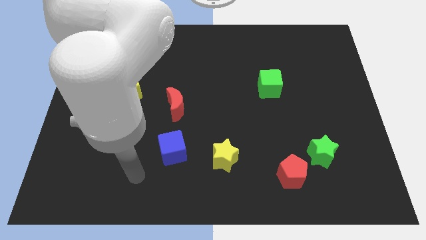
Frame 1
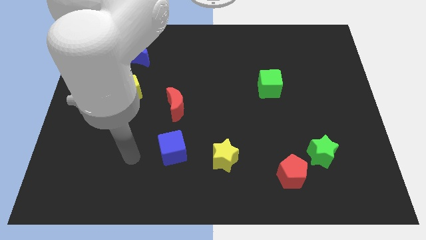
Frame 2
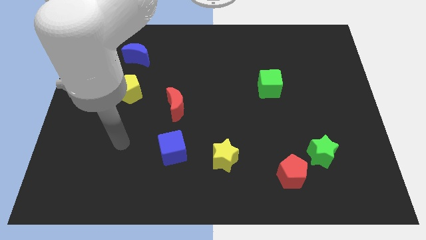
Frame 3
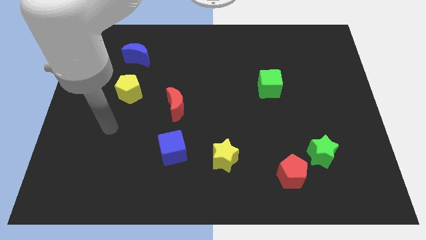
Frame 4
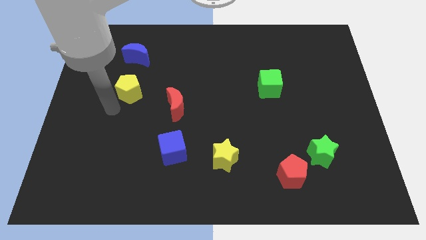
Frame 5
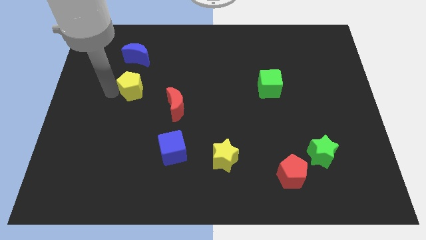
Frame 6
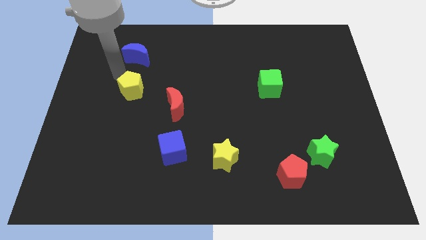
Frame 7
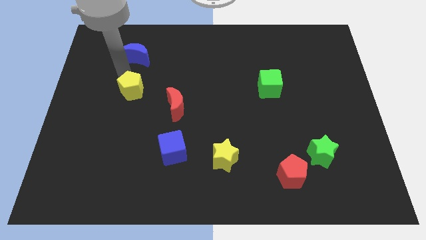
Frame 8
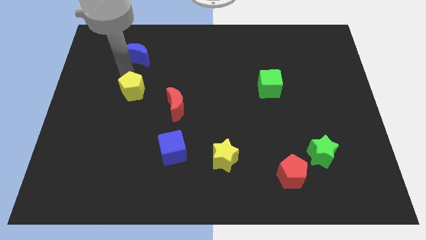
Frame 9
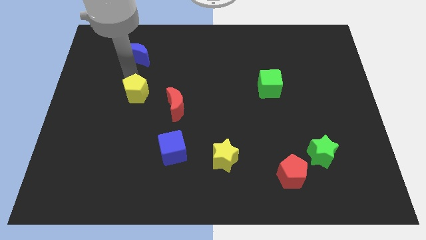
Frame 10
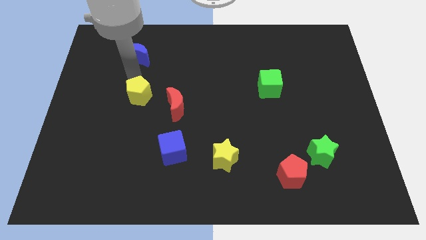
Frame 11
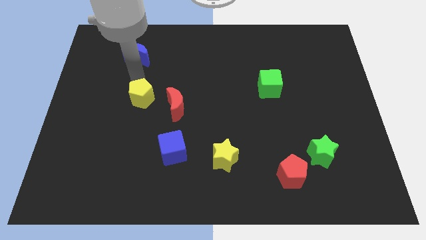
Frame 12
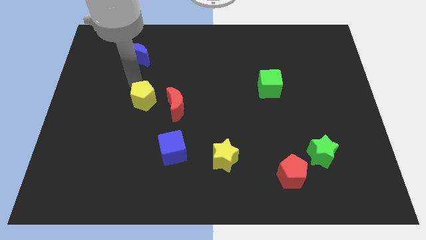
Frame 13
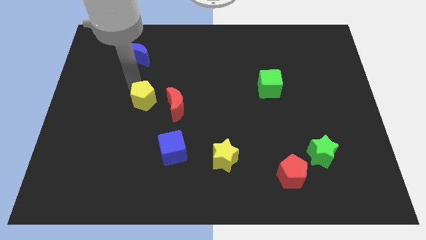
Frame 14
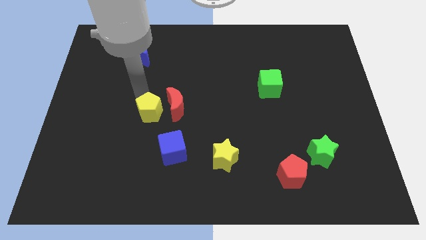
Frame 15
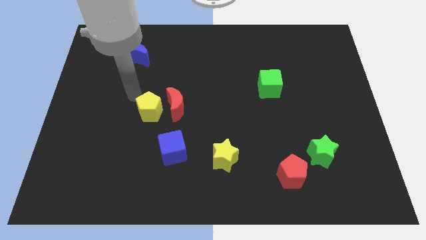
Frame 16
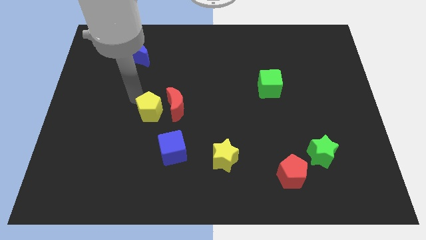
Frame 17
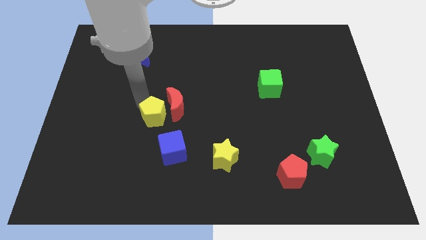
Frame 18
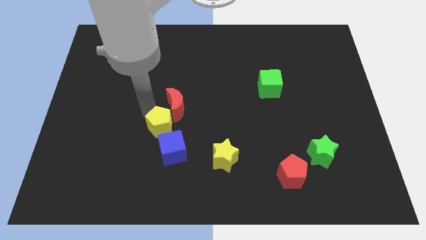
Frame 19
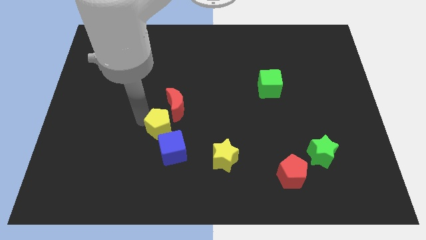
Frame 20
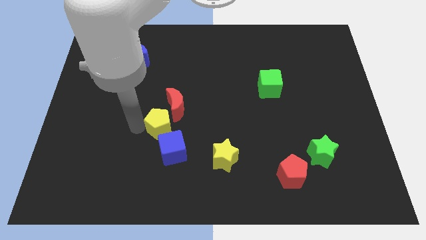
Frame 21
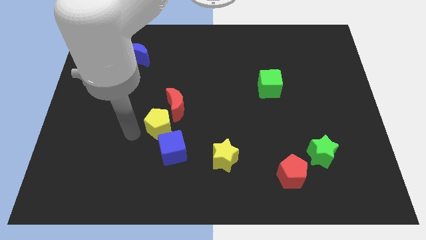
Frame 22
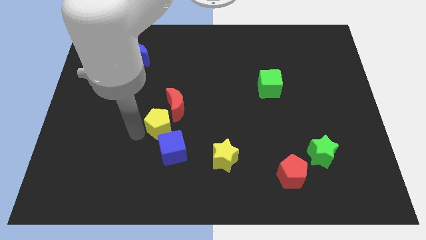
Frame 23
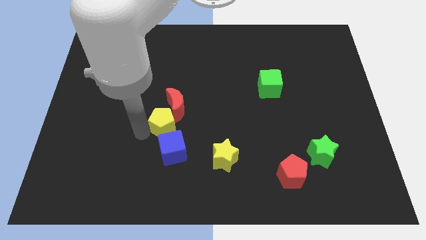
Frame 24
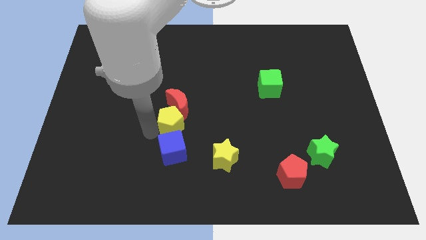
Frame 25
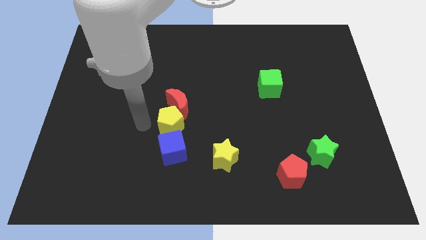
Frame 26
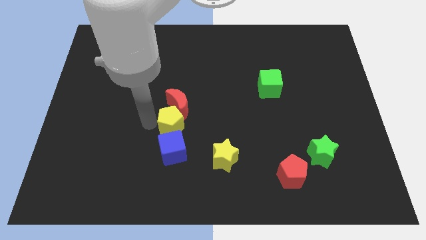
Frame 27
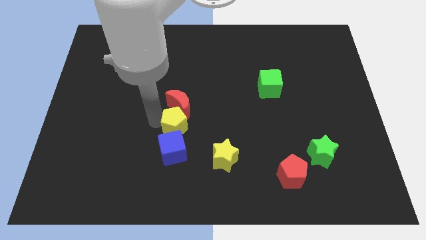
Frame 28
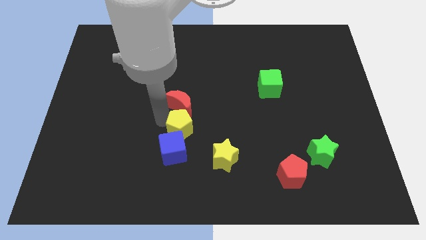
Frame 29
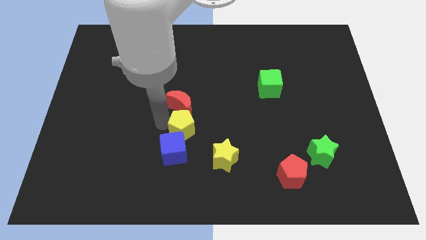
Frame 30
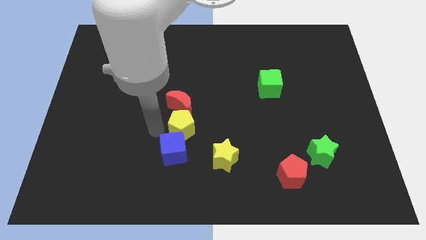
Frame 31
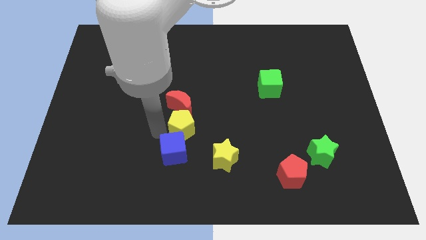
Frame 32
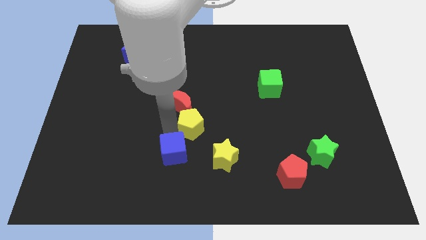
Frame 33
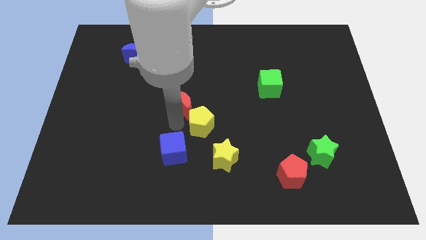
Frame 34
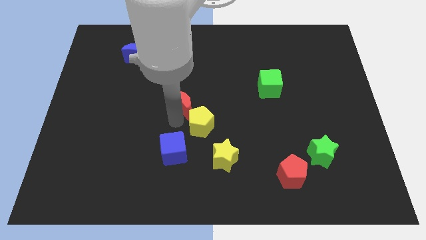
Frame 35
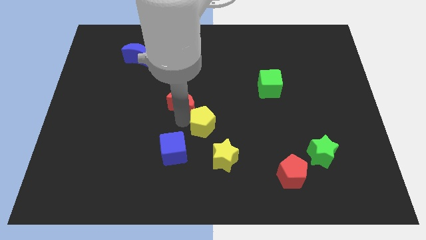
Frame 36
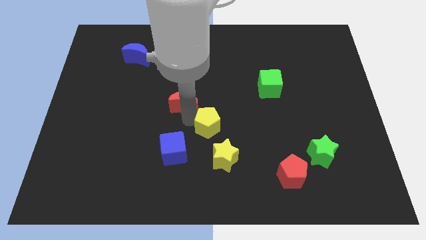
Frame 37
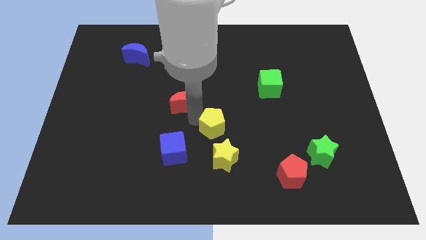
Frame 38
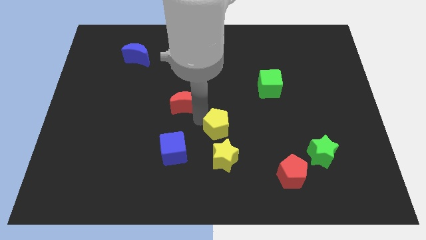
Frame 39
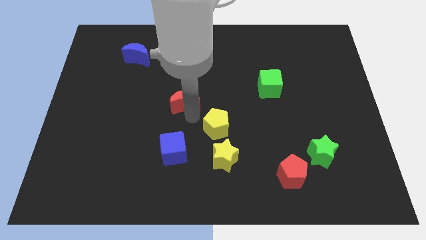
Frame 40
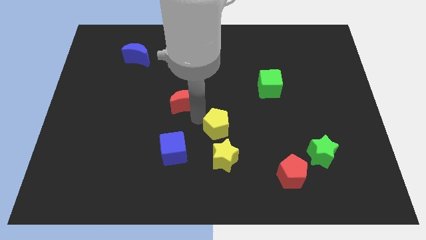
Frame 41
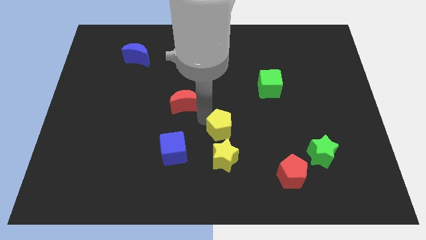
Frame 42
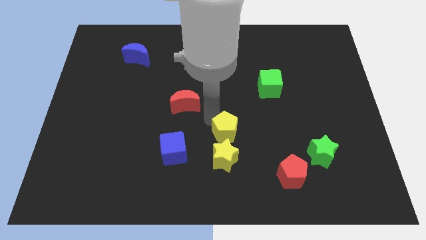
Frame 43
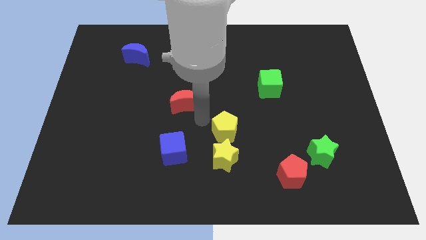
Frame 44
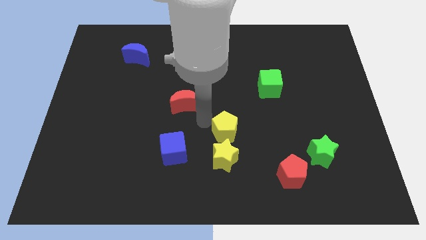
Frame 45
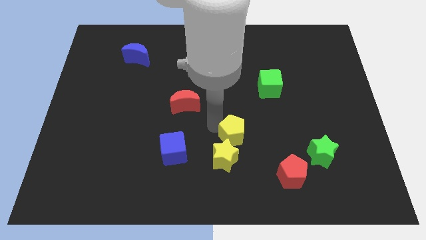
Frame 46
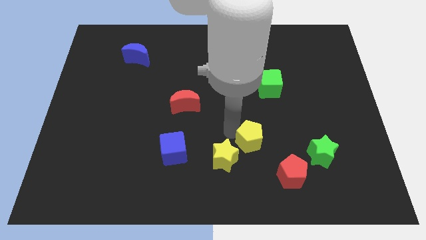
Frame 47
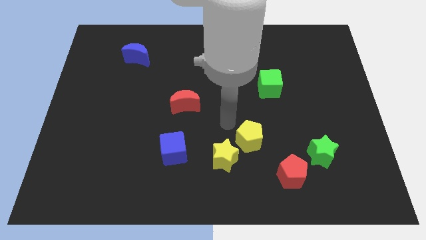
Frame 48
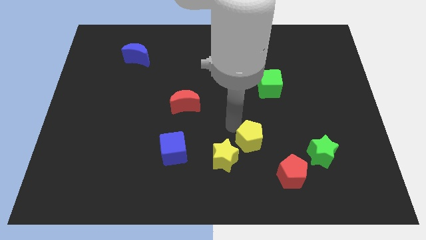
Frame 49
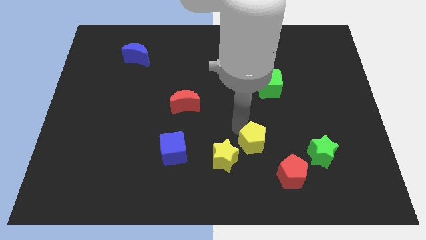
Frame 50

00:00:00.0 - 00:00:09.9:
put the yellow pentagon left of the green star

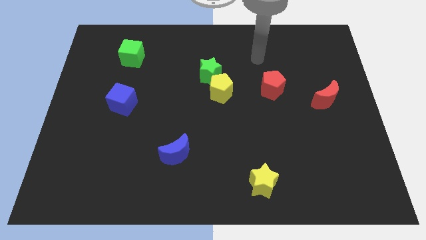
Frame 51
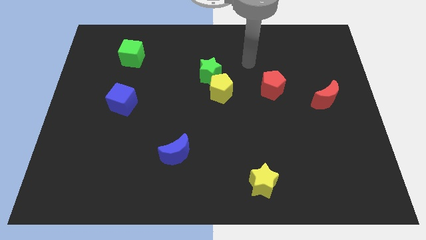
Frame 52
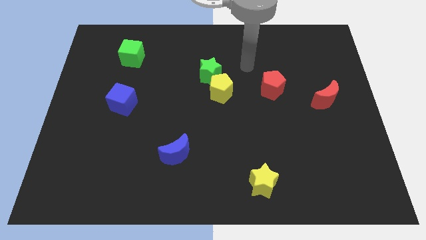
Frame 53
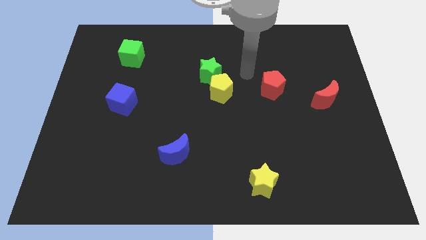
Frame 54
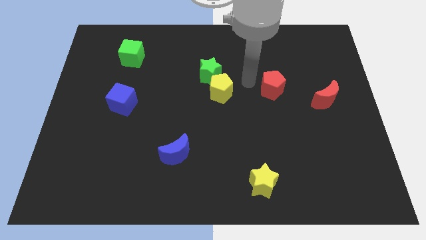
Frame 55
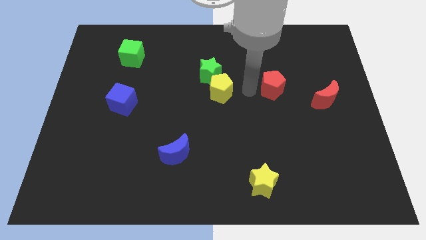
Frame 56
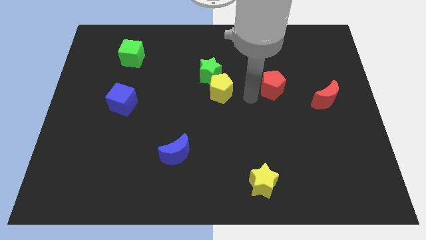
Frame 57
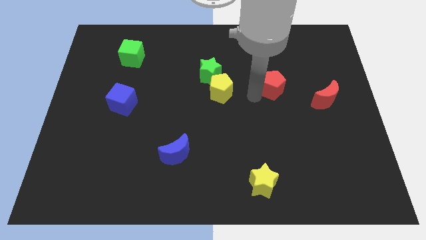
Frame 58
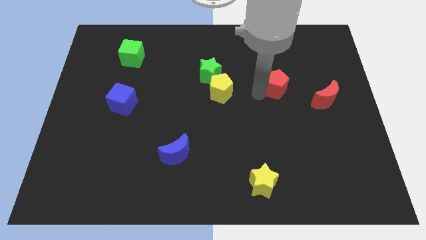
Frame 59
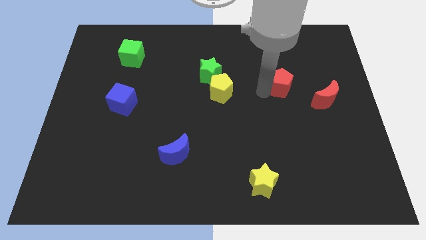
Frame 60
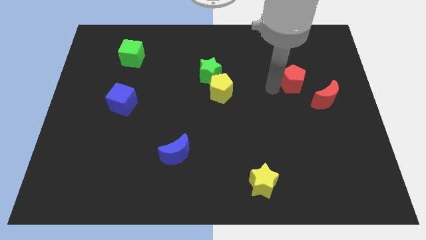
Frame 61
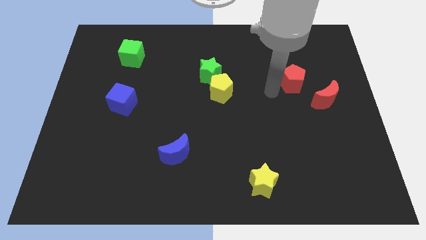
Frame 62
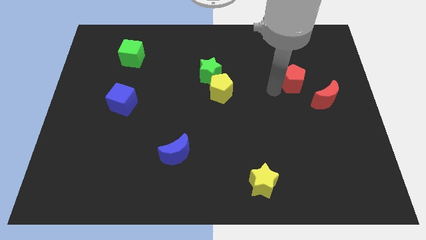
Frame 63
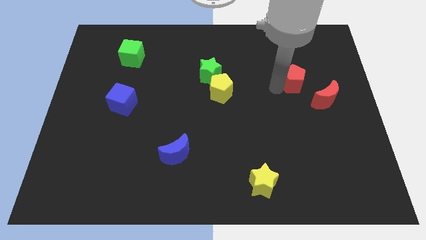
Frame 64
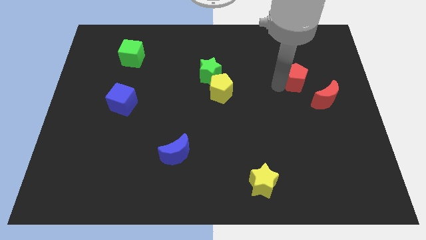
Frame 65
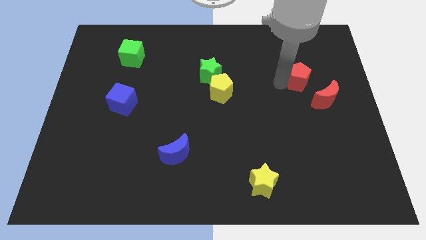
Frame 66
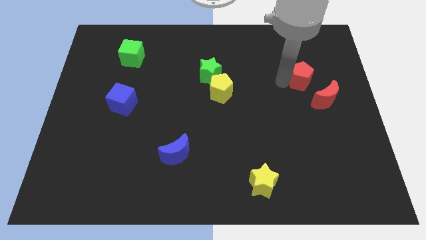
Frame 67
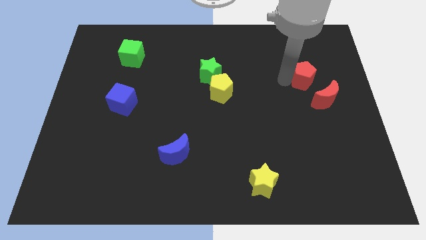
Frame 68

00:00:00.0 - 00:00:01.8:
move the red pentagon above the red moon
